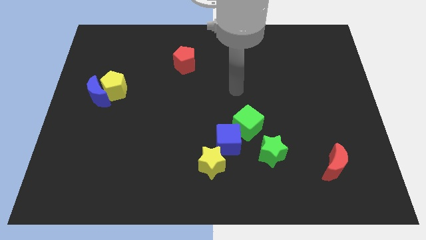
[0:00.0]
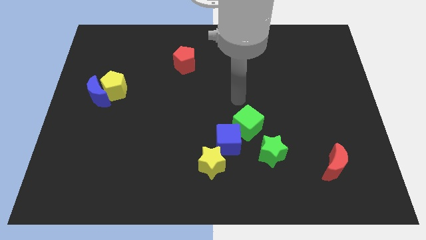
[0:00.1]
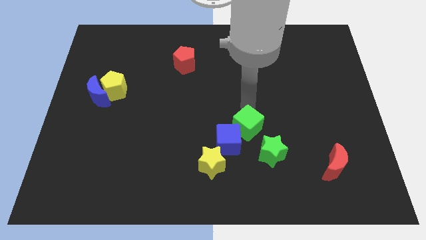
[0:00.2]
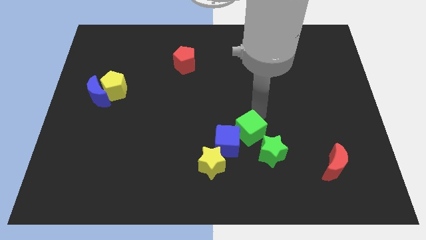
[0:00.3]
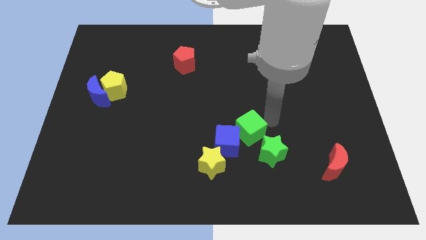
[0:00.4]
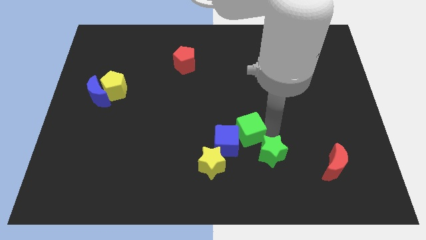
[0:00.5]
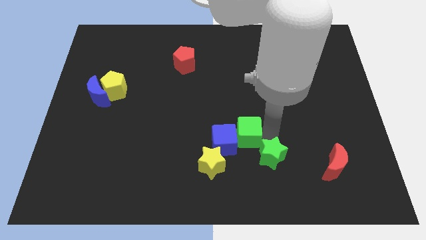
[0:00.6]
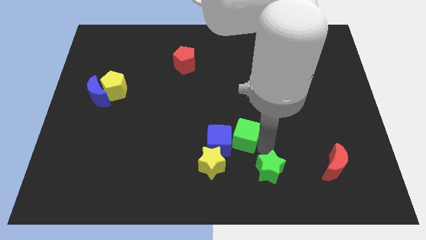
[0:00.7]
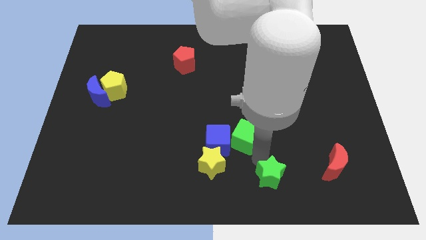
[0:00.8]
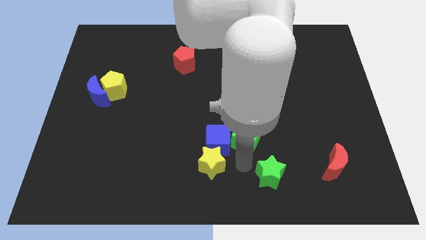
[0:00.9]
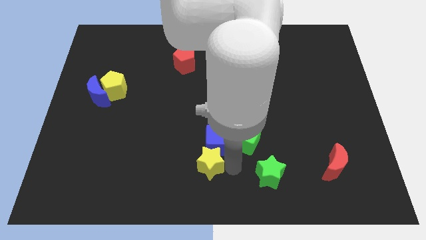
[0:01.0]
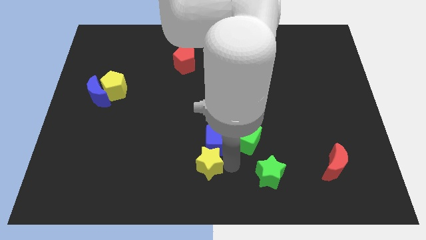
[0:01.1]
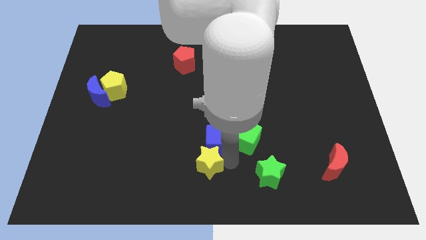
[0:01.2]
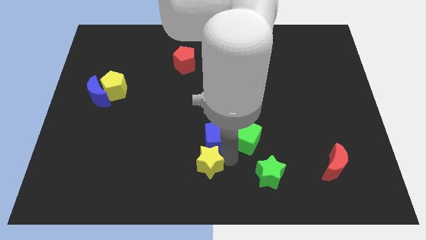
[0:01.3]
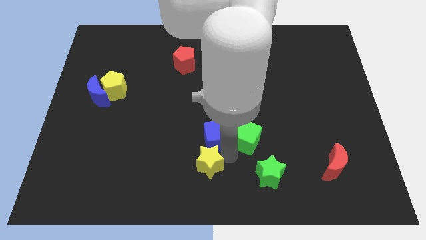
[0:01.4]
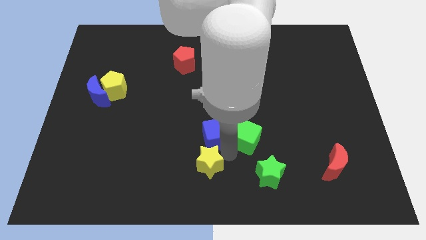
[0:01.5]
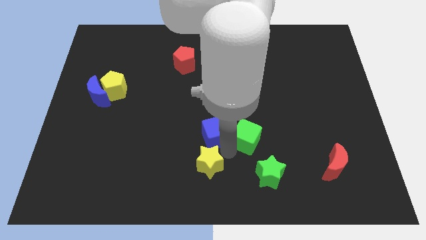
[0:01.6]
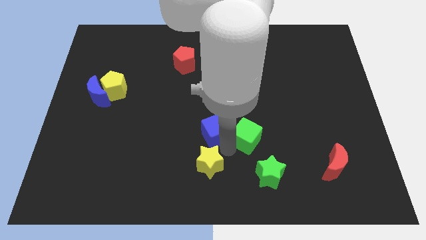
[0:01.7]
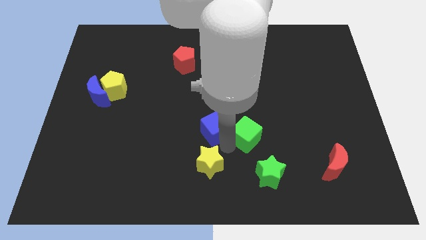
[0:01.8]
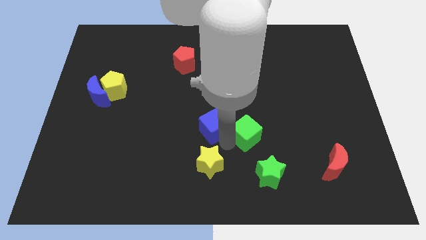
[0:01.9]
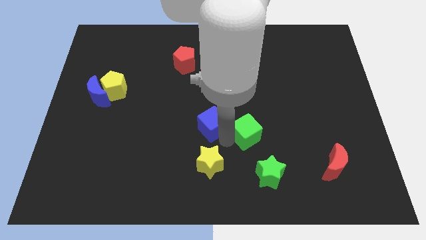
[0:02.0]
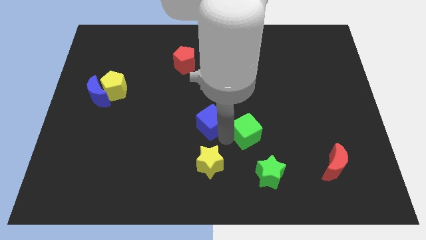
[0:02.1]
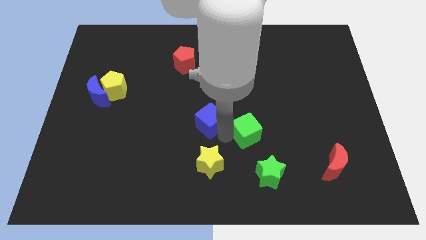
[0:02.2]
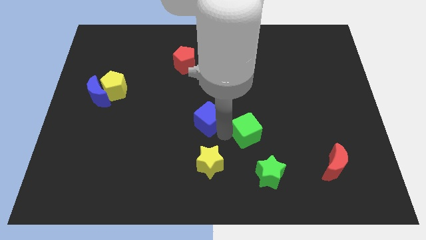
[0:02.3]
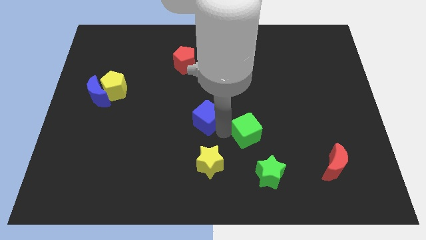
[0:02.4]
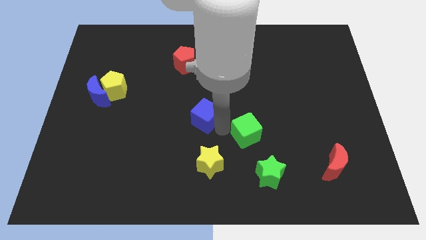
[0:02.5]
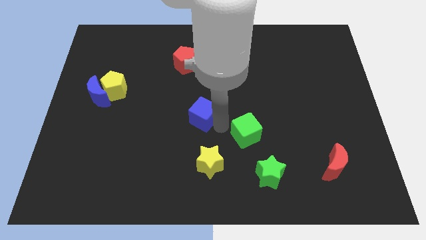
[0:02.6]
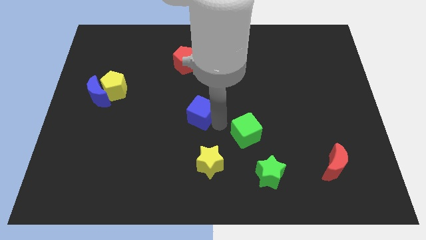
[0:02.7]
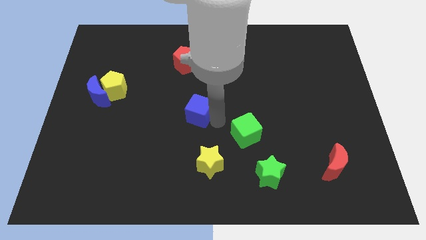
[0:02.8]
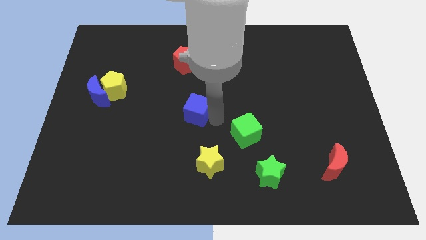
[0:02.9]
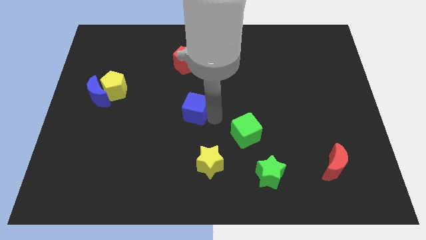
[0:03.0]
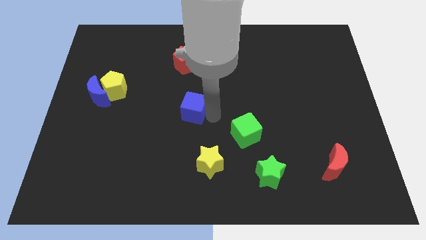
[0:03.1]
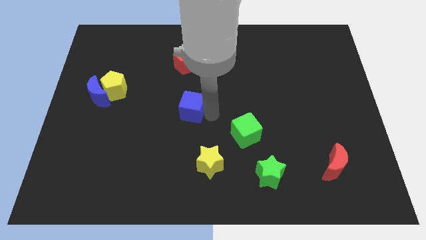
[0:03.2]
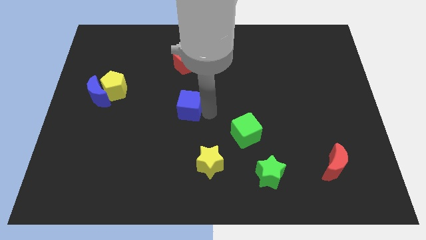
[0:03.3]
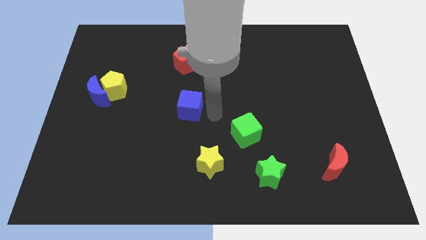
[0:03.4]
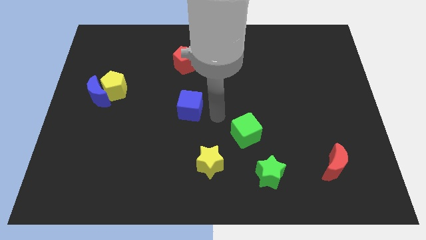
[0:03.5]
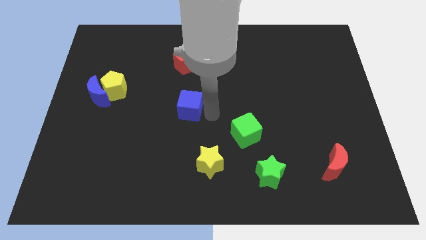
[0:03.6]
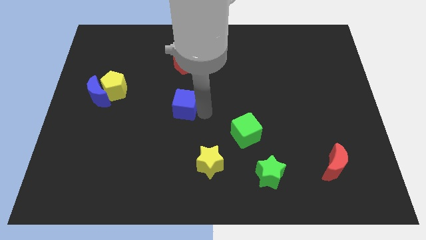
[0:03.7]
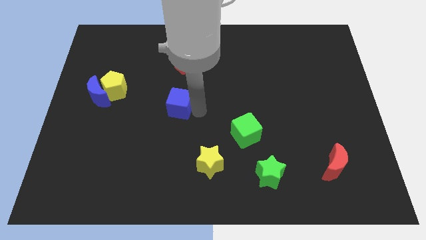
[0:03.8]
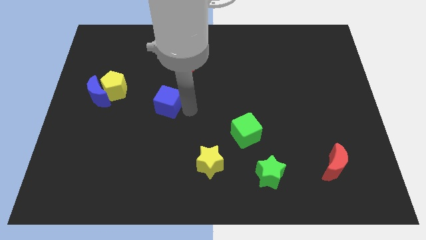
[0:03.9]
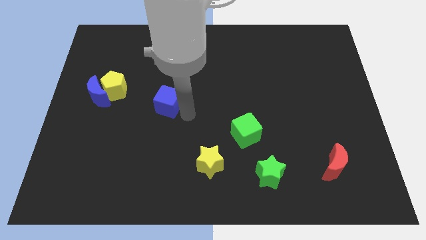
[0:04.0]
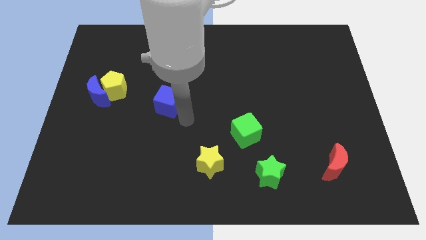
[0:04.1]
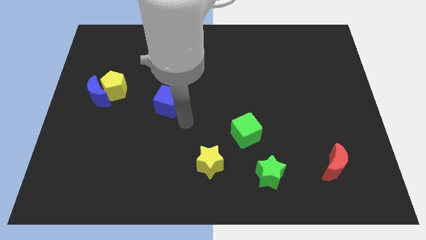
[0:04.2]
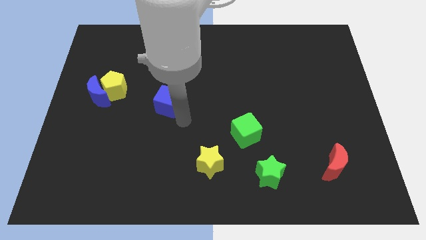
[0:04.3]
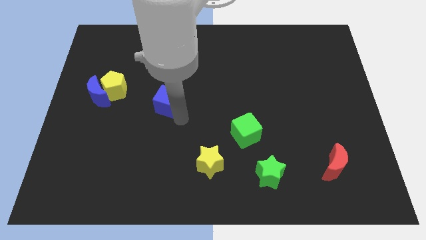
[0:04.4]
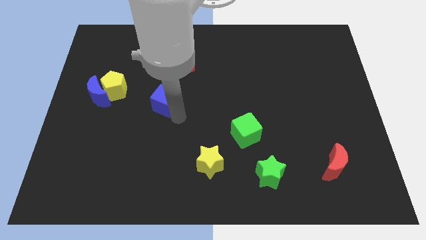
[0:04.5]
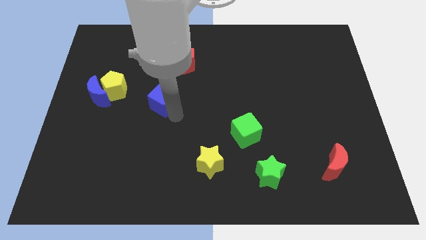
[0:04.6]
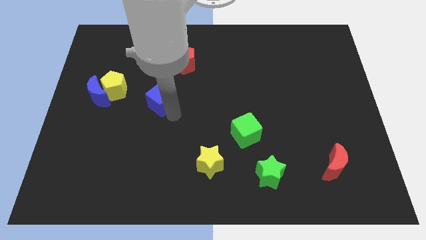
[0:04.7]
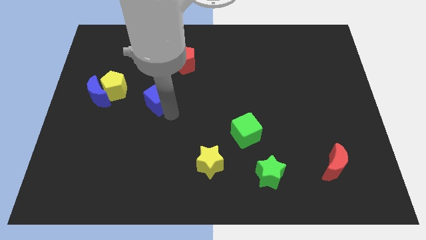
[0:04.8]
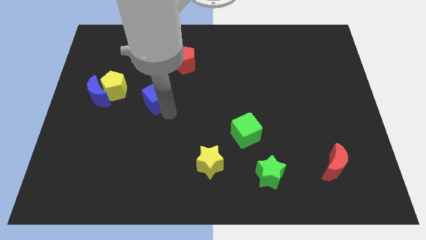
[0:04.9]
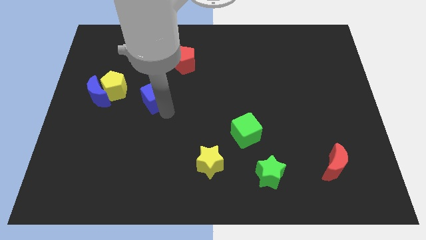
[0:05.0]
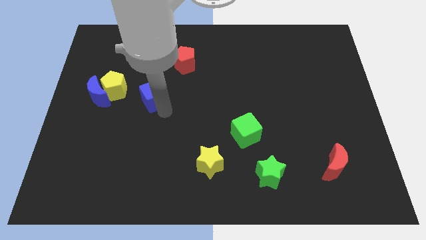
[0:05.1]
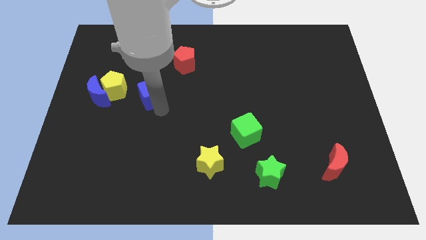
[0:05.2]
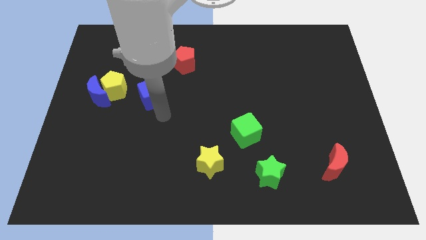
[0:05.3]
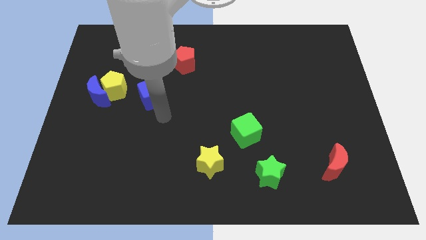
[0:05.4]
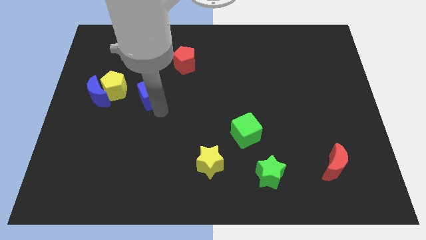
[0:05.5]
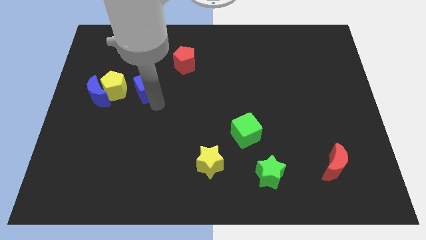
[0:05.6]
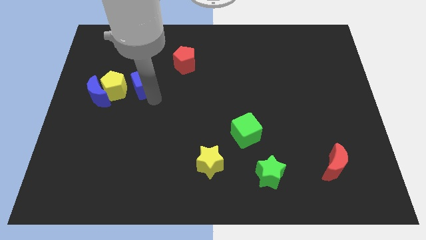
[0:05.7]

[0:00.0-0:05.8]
put the blue cube to the top right side of the yellow pentagon

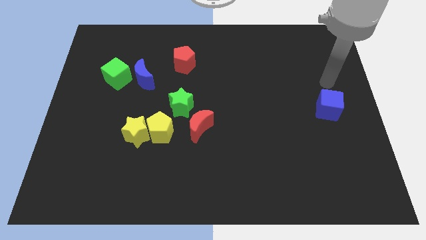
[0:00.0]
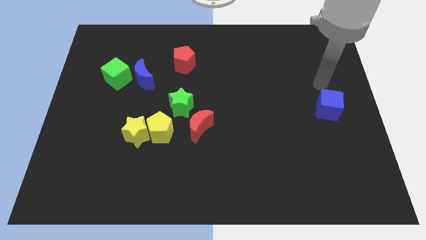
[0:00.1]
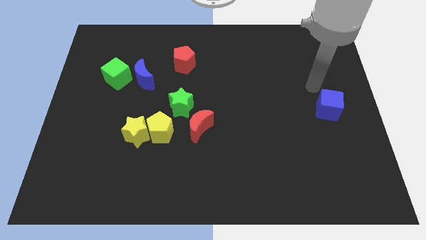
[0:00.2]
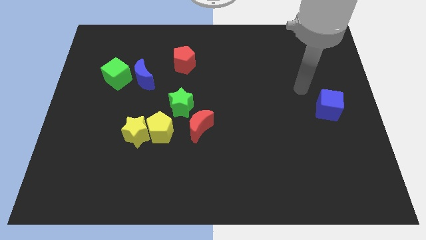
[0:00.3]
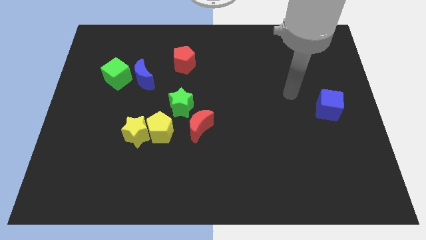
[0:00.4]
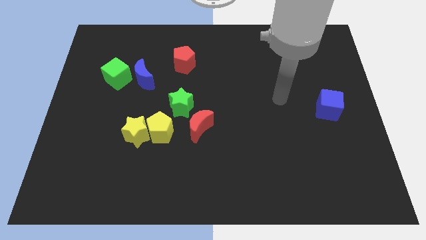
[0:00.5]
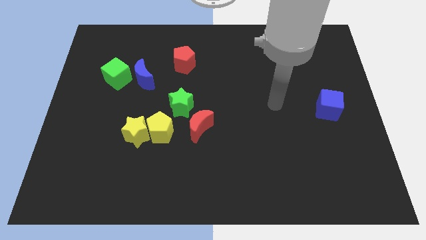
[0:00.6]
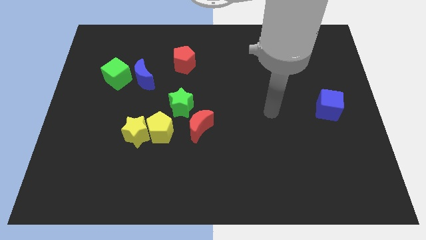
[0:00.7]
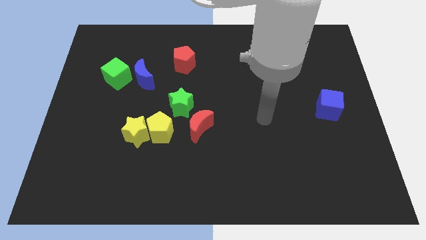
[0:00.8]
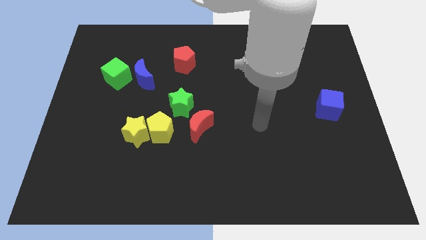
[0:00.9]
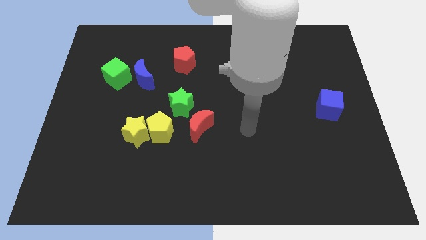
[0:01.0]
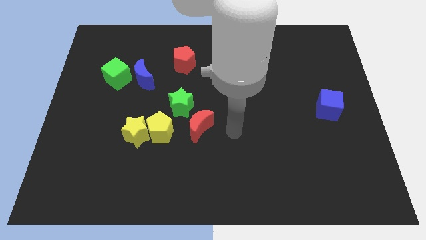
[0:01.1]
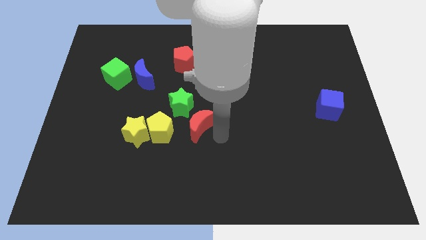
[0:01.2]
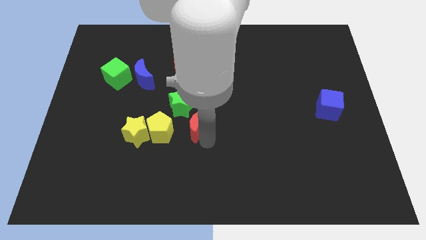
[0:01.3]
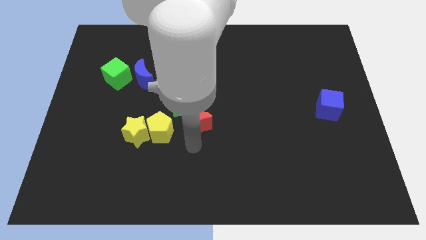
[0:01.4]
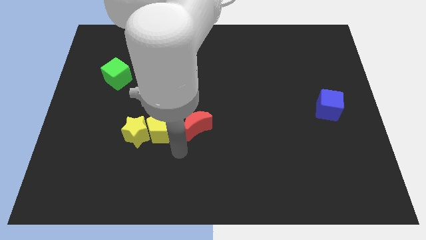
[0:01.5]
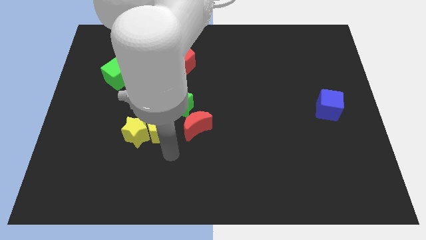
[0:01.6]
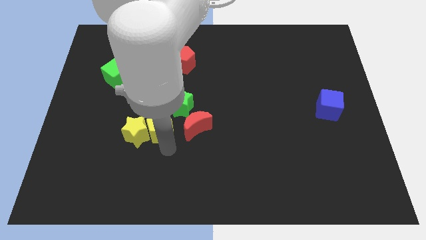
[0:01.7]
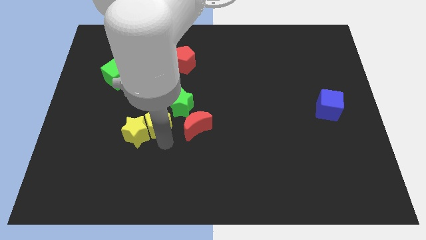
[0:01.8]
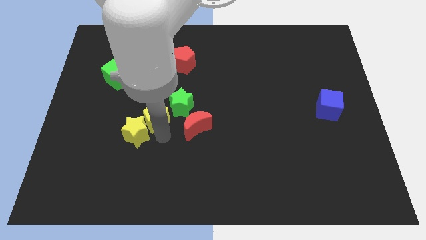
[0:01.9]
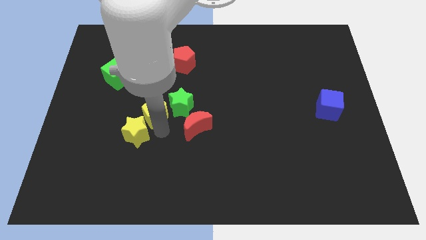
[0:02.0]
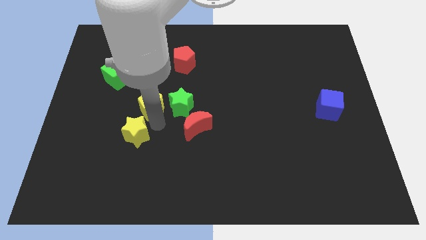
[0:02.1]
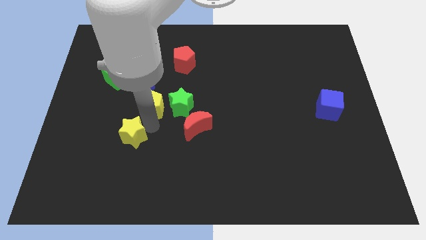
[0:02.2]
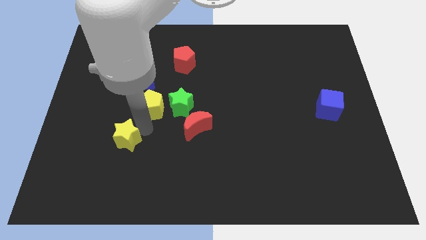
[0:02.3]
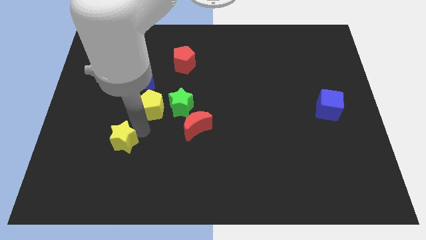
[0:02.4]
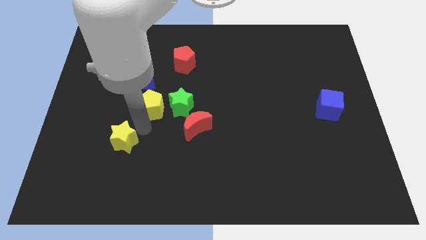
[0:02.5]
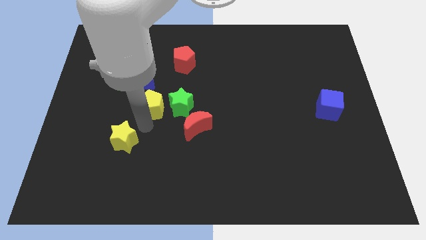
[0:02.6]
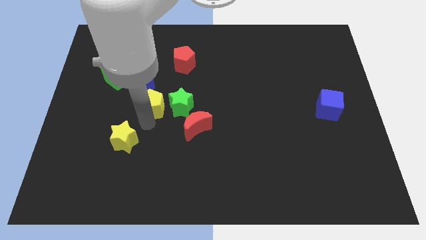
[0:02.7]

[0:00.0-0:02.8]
push the yellow pentagon to the top left of the green star
